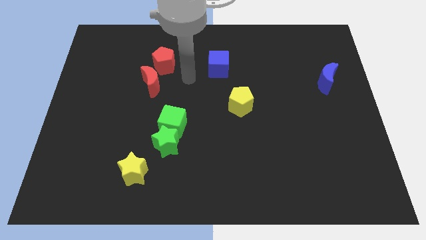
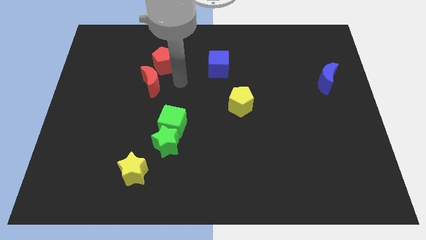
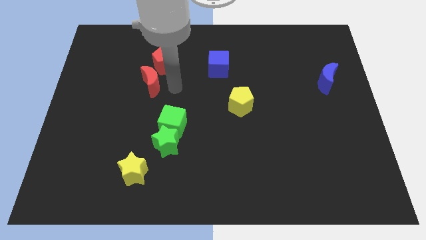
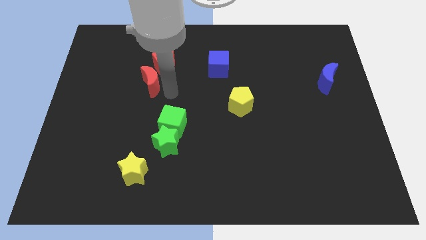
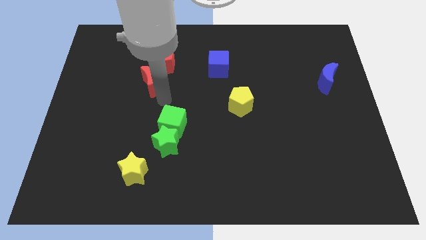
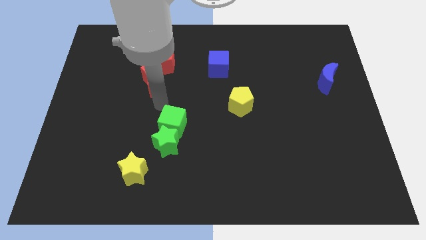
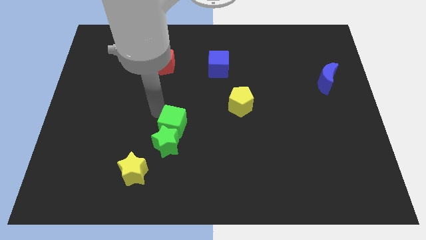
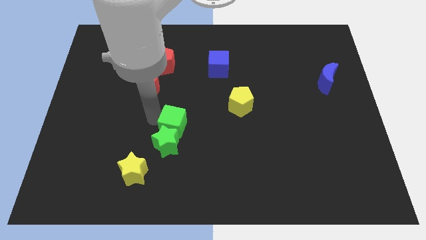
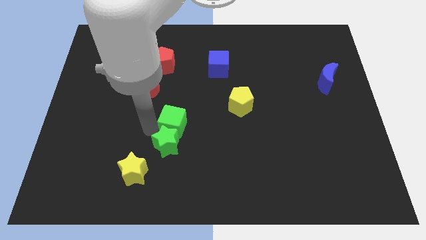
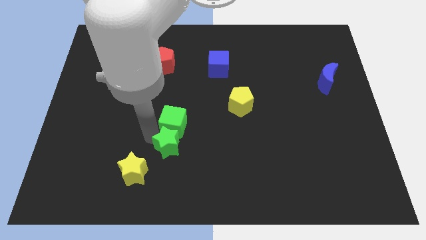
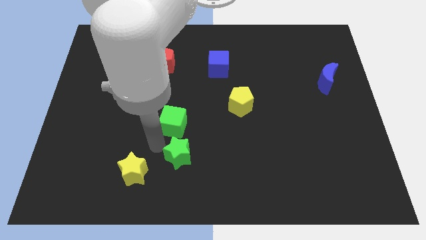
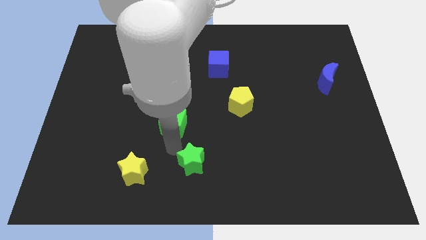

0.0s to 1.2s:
move the green cube away from the green star

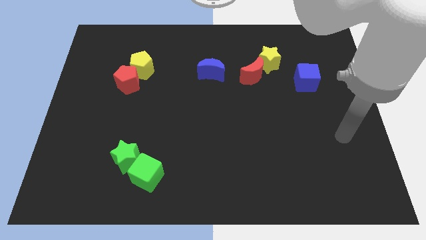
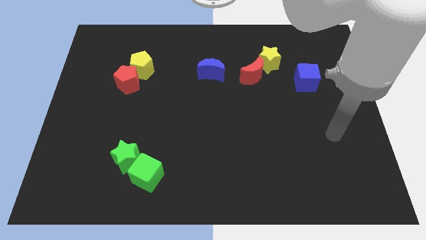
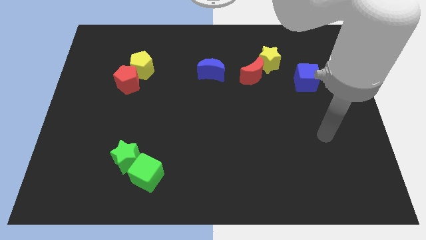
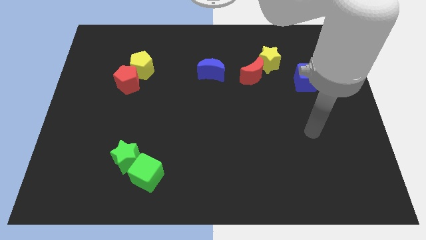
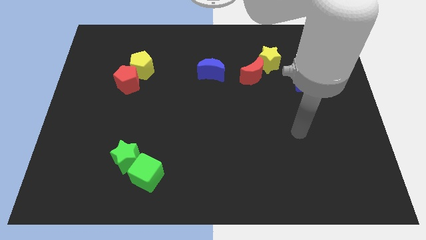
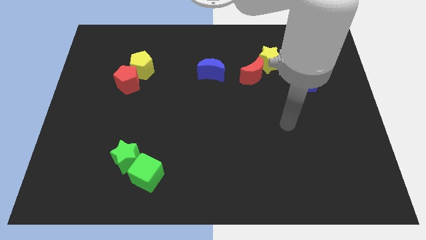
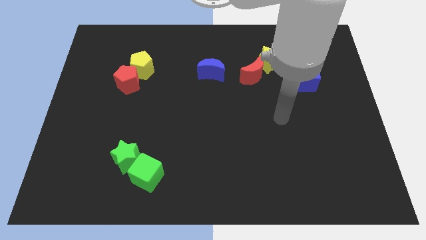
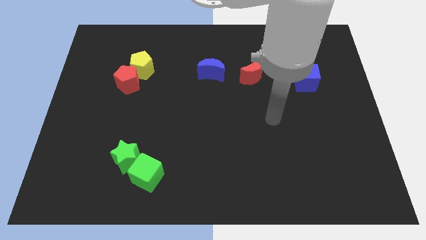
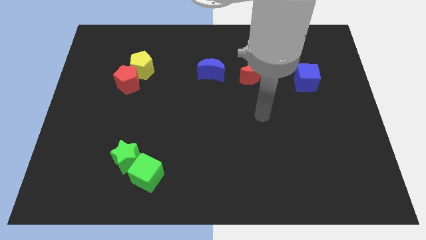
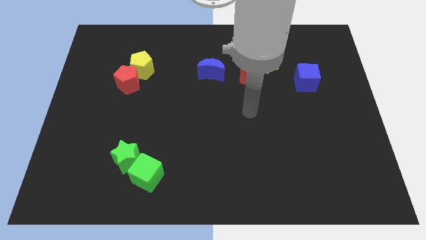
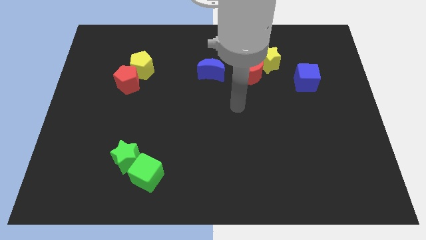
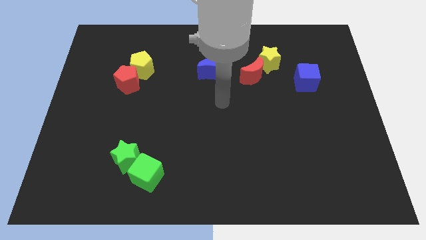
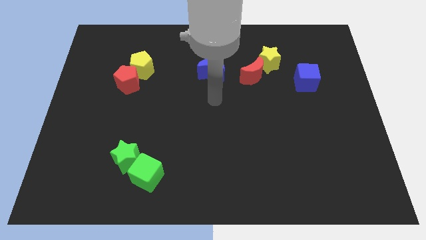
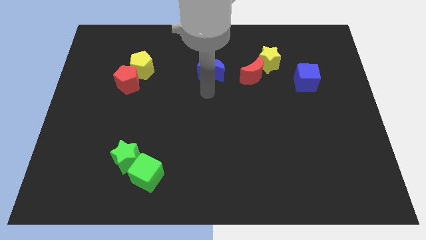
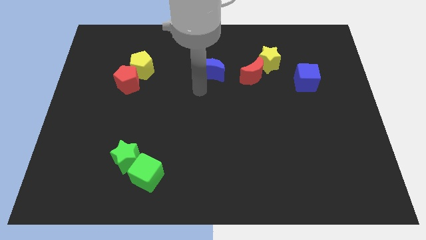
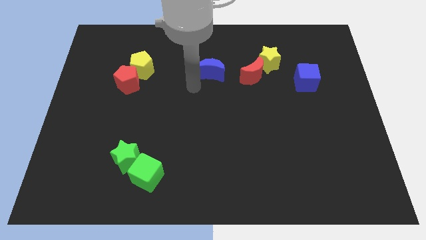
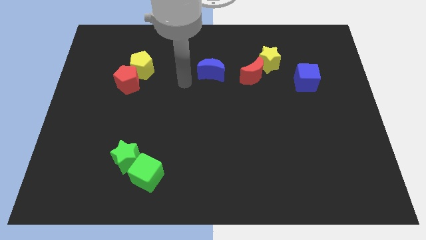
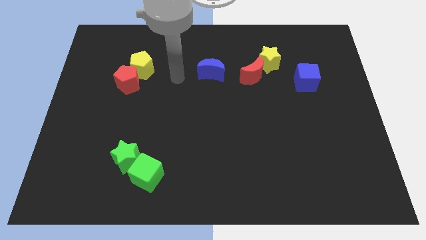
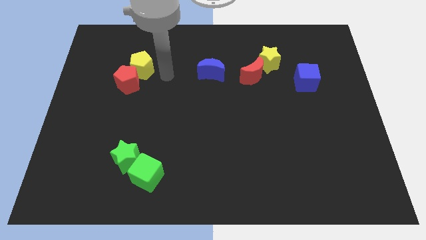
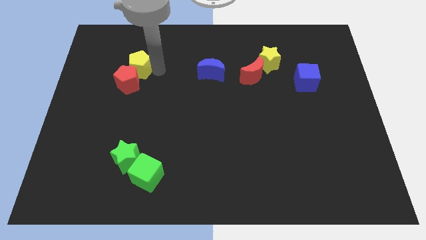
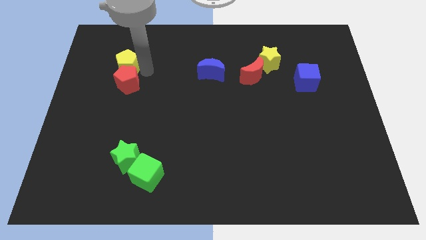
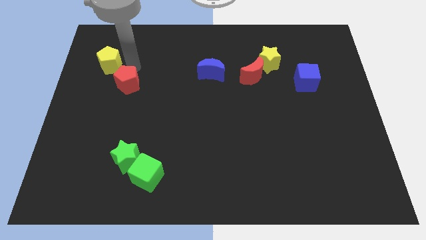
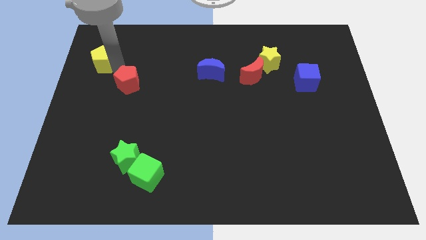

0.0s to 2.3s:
separate the red pentagon from the yellow pentagon

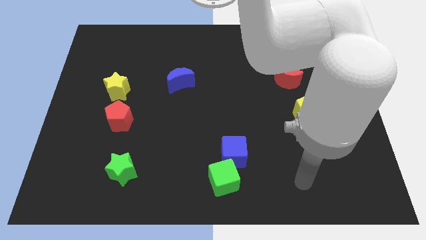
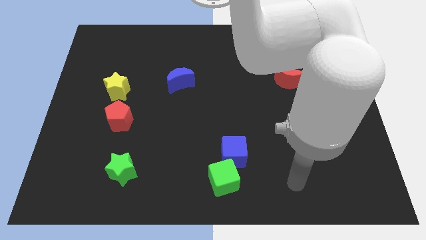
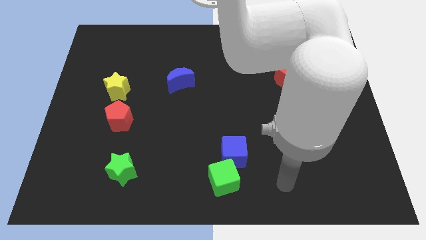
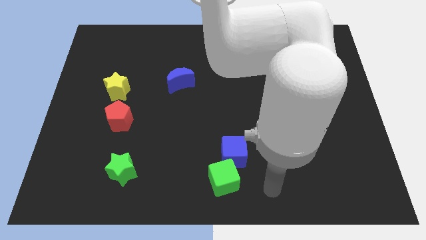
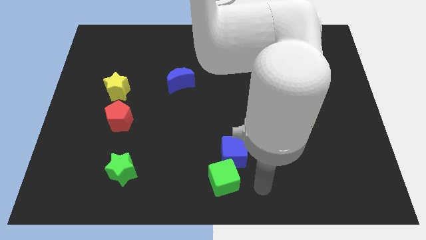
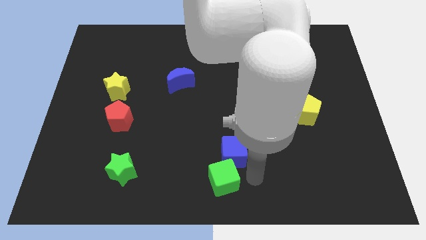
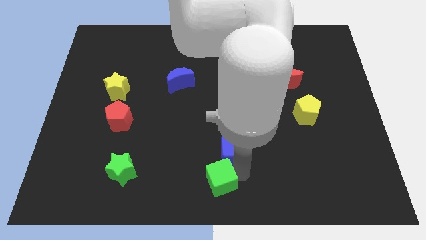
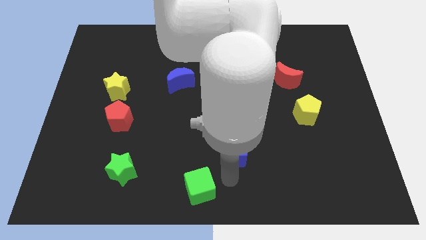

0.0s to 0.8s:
pull the blue cube apart from the green cube

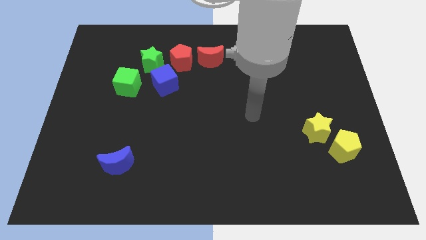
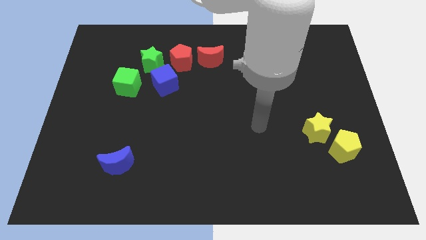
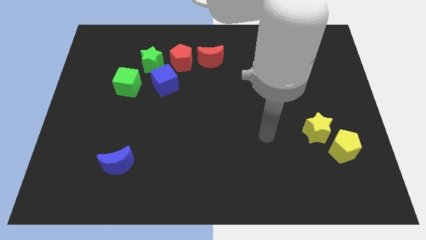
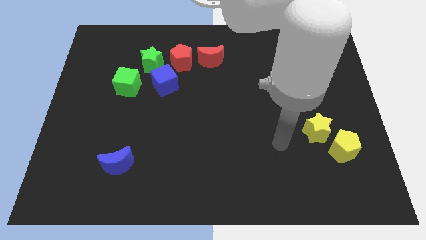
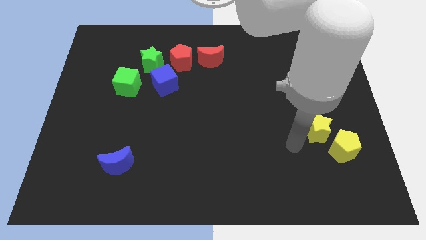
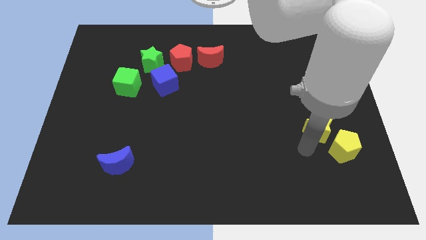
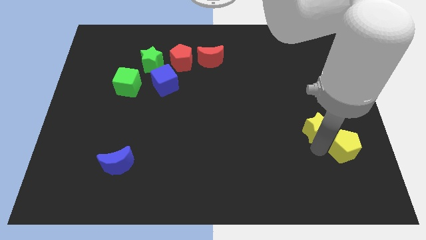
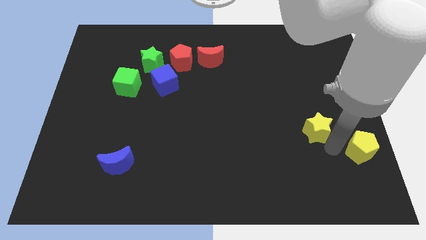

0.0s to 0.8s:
pull the yellow star apart from the yellow pentagon

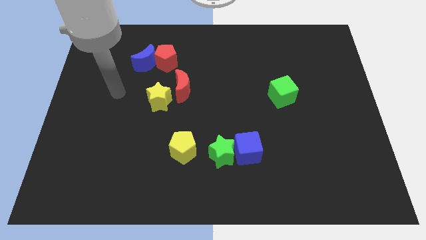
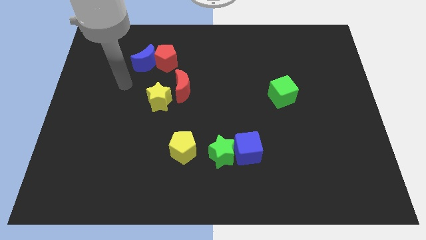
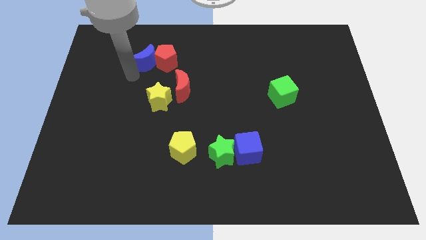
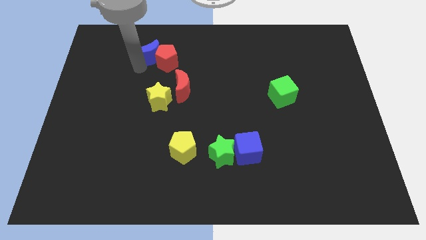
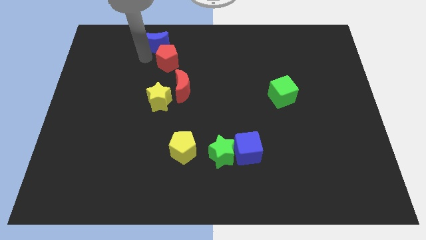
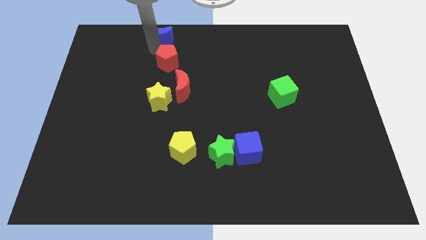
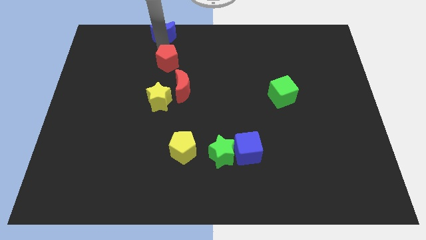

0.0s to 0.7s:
move the red pentagon away from the blue moon

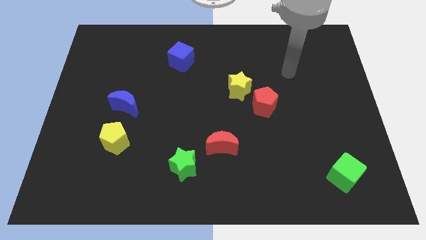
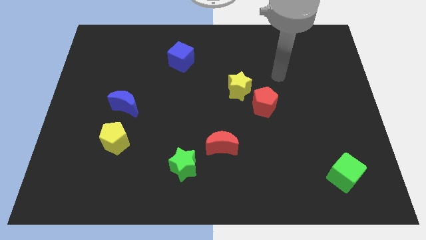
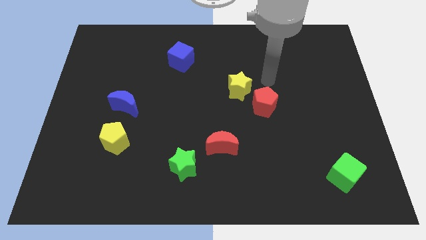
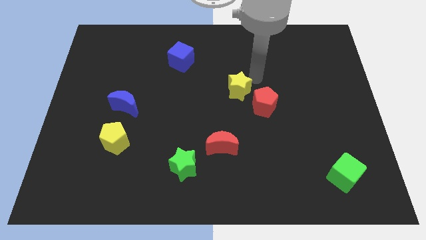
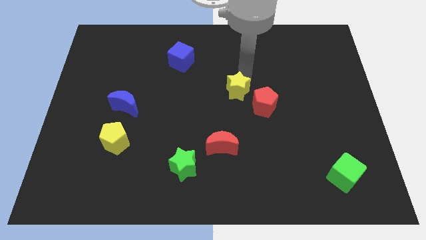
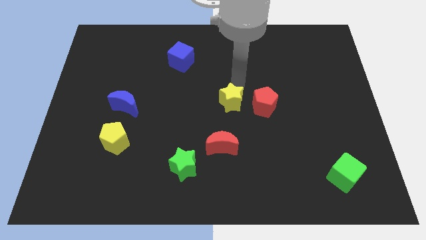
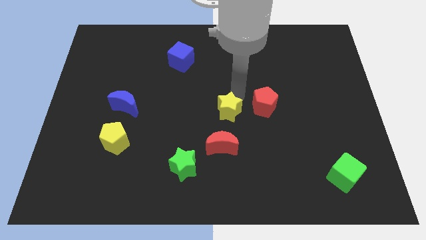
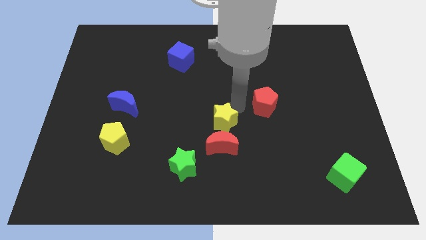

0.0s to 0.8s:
pull the red pentagon apart from the yellow star

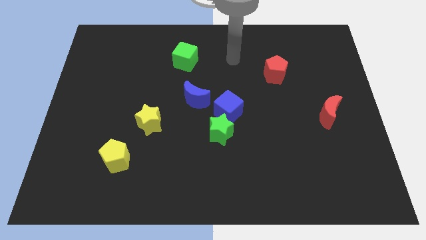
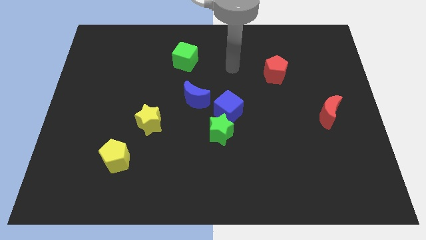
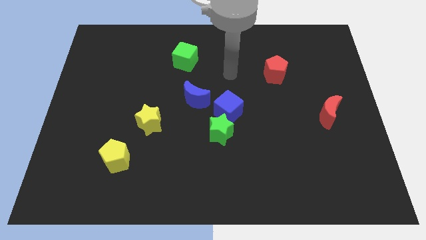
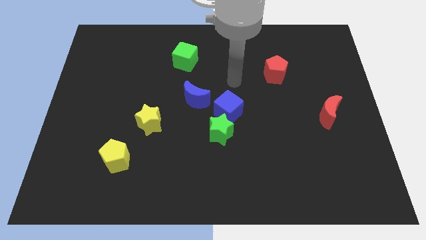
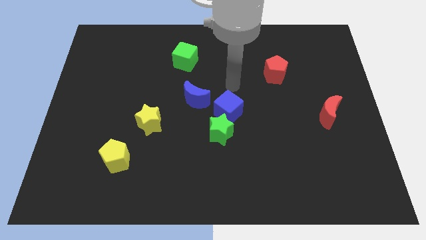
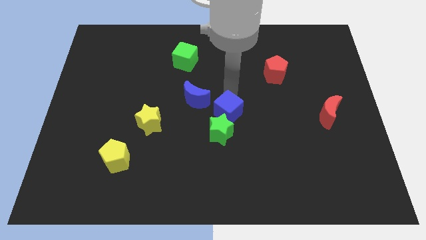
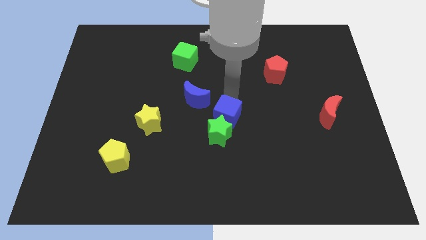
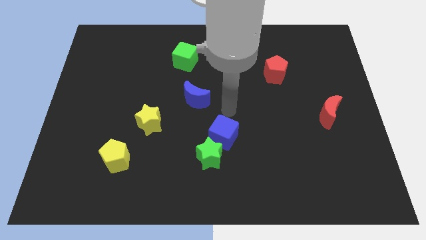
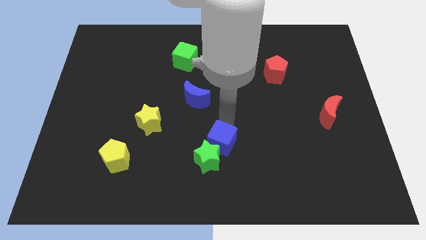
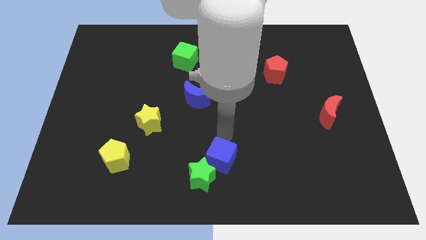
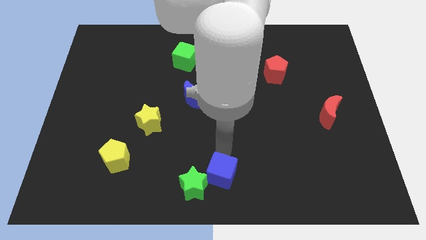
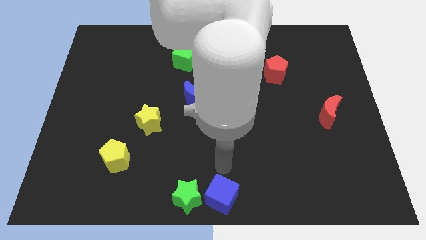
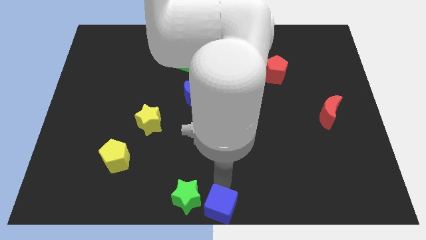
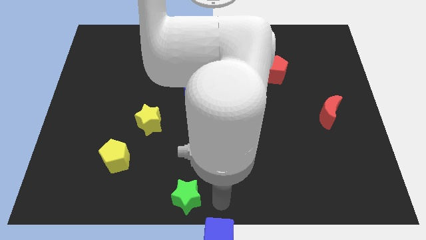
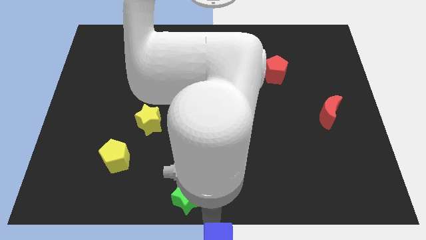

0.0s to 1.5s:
pull the green star apart from the blue cube

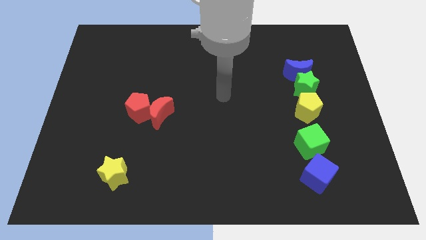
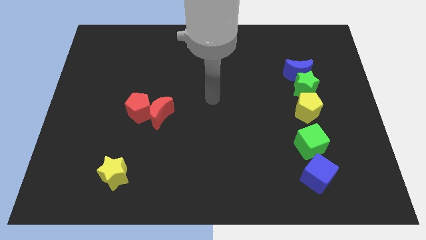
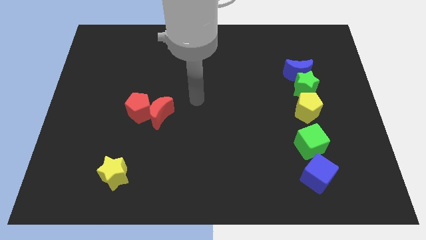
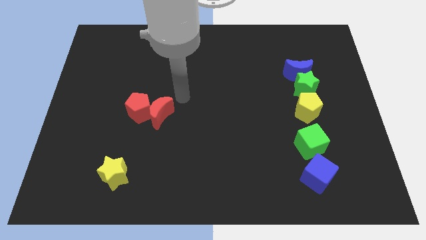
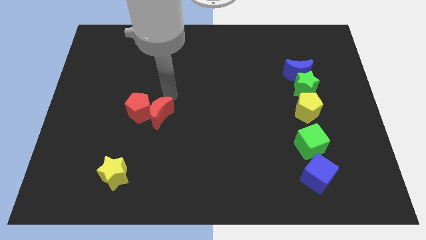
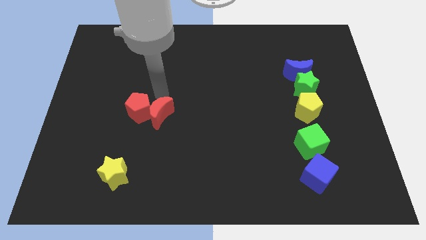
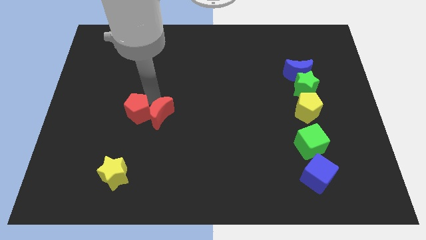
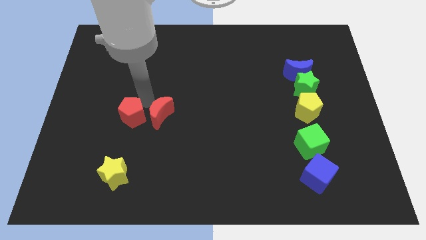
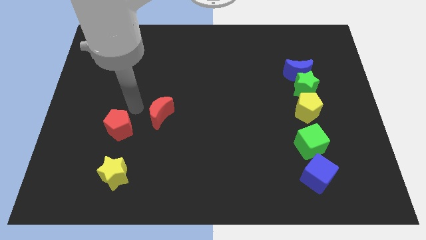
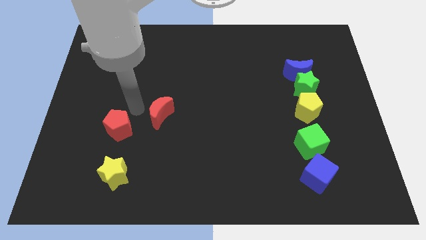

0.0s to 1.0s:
pull the red moon apart from the red pentagon

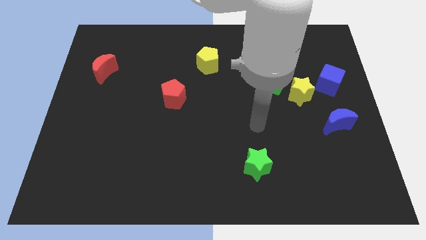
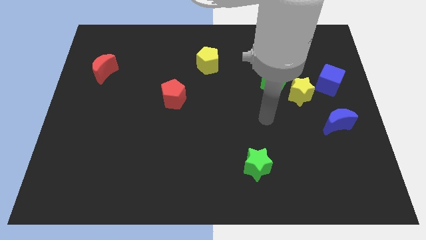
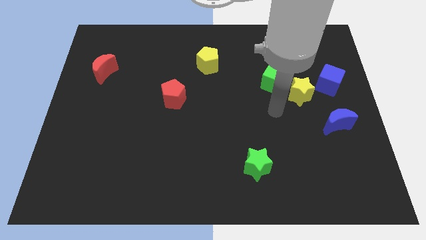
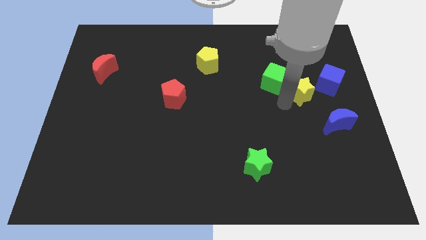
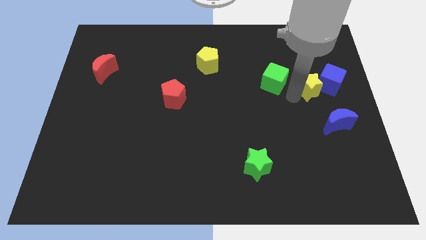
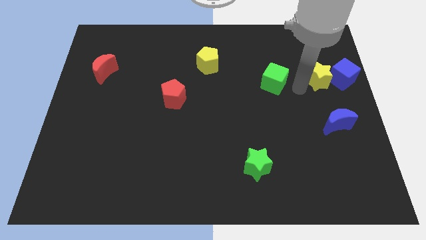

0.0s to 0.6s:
pull the green cube apart from the yellow star
